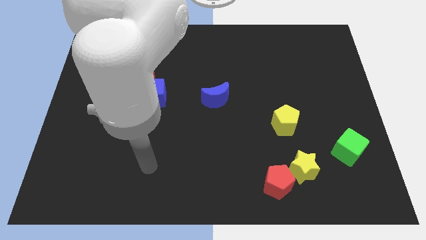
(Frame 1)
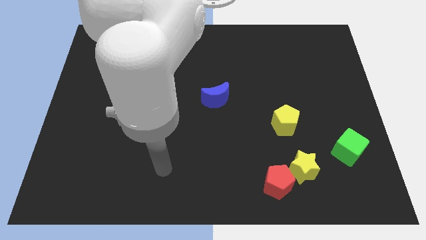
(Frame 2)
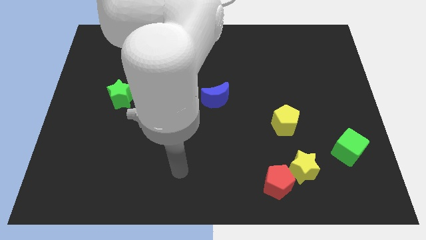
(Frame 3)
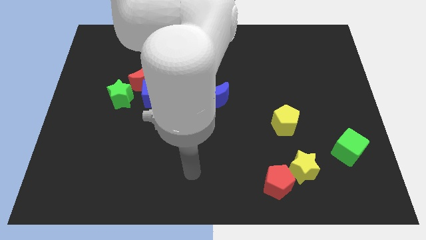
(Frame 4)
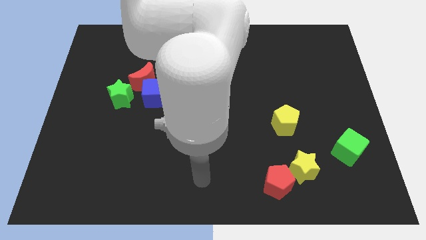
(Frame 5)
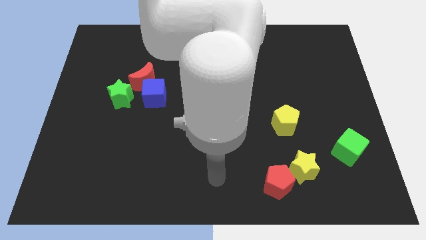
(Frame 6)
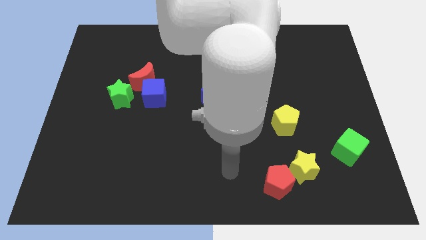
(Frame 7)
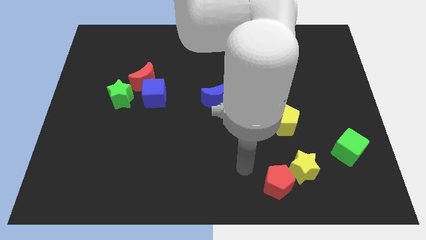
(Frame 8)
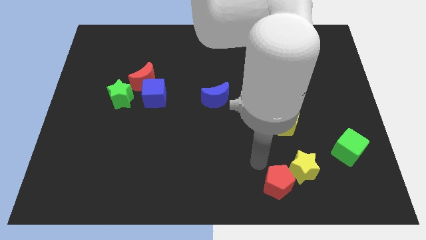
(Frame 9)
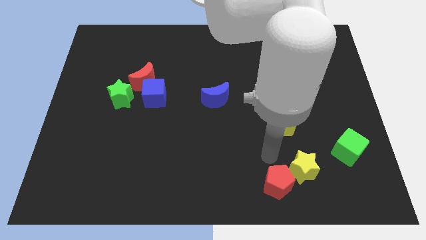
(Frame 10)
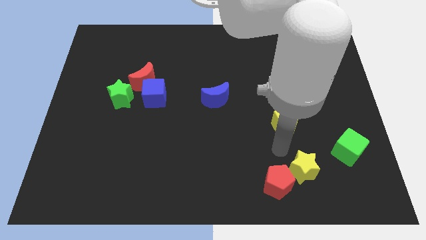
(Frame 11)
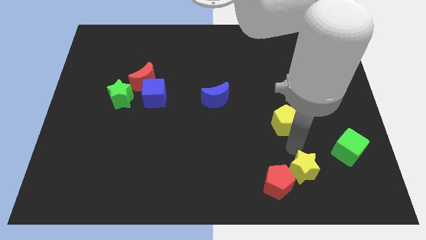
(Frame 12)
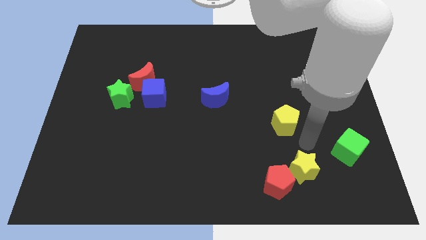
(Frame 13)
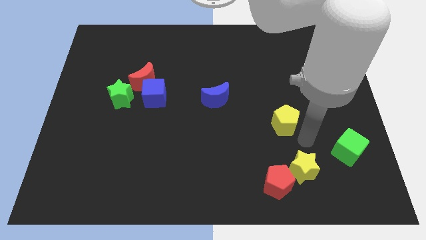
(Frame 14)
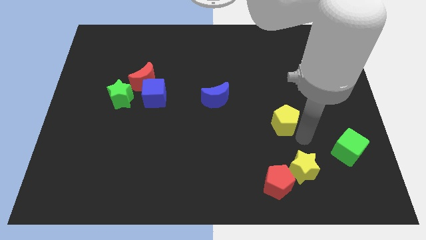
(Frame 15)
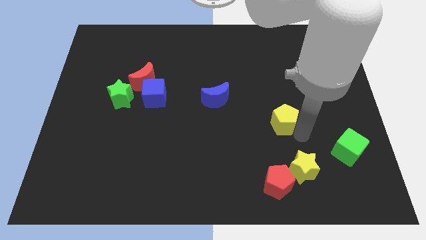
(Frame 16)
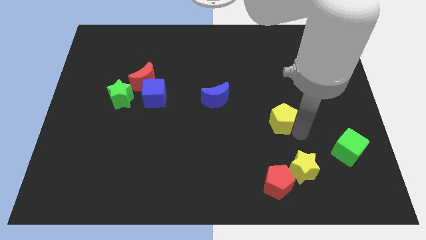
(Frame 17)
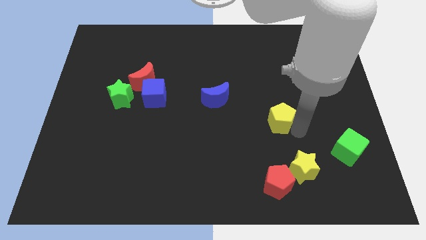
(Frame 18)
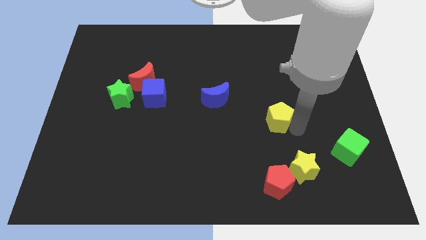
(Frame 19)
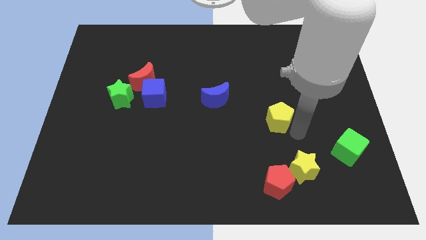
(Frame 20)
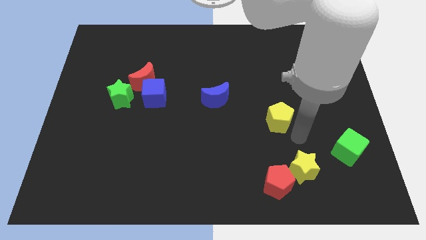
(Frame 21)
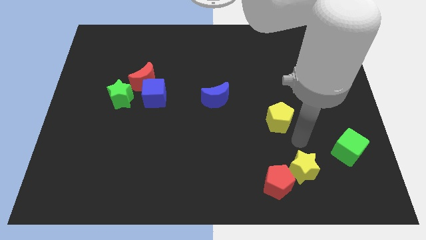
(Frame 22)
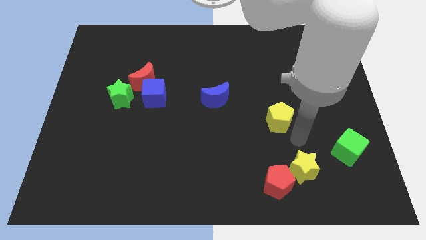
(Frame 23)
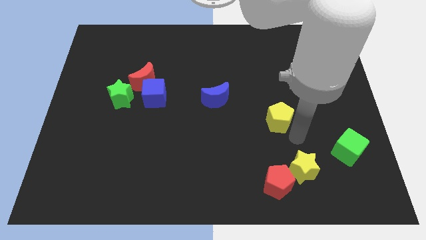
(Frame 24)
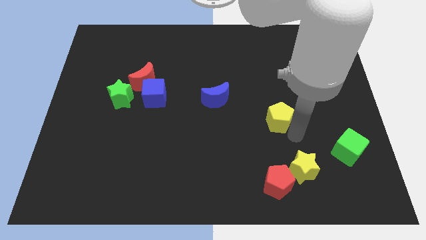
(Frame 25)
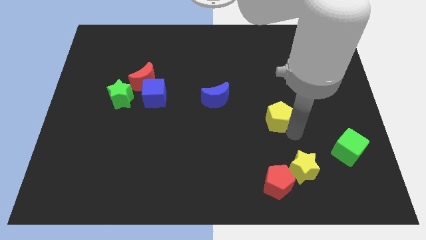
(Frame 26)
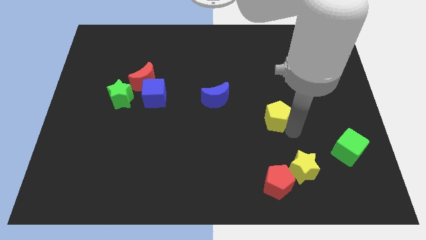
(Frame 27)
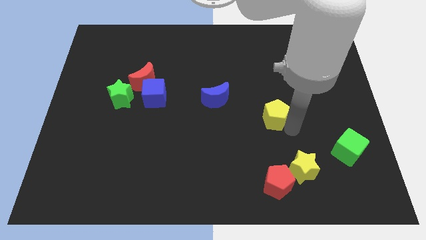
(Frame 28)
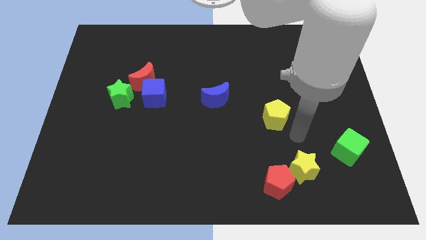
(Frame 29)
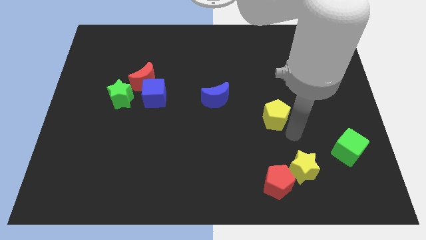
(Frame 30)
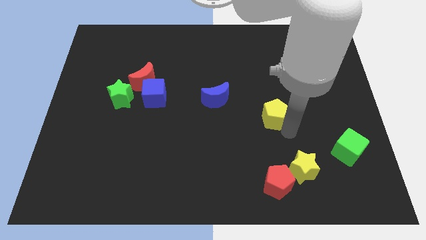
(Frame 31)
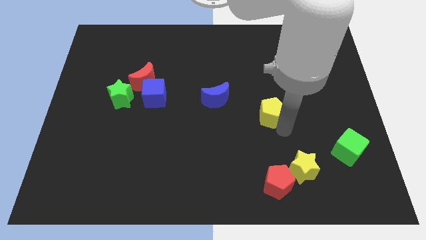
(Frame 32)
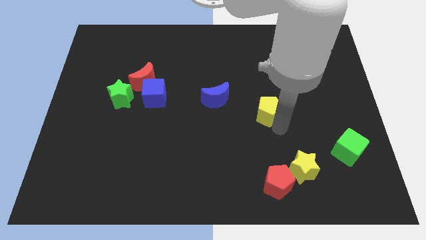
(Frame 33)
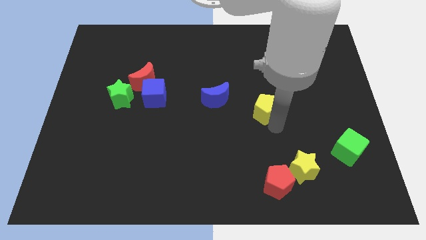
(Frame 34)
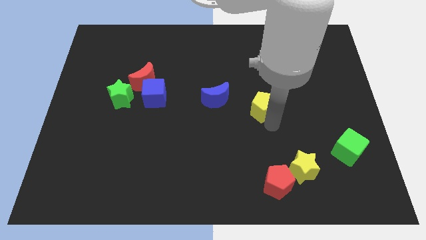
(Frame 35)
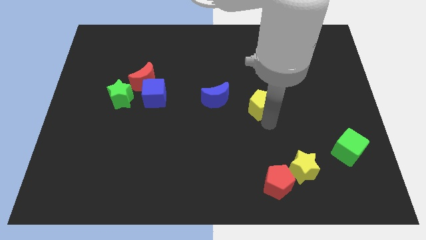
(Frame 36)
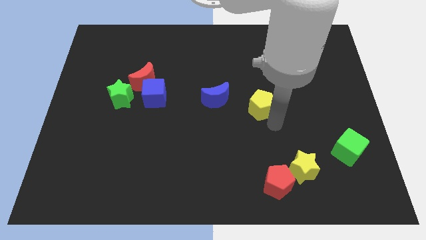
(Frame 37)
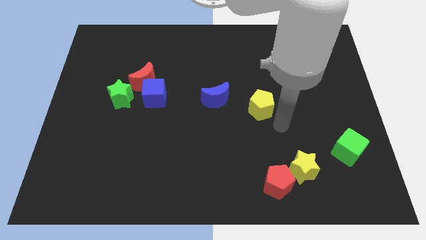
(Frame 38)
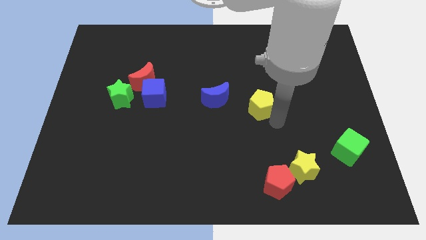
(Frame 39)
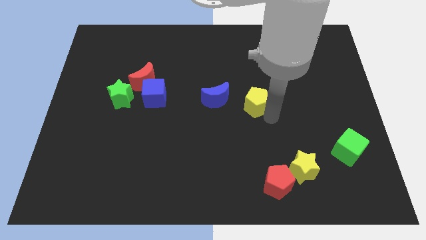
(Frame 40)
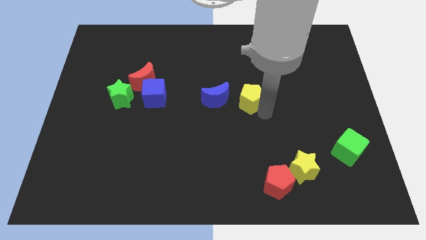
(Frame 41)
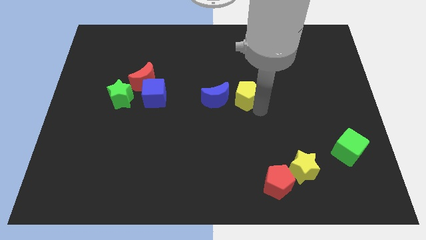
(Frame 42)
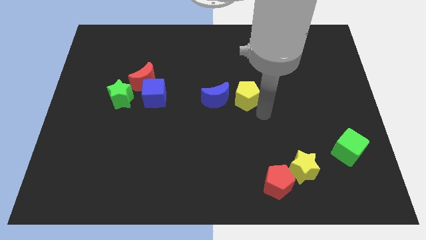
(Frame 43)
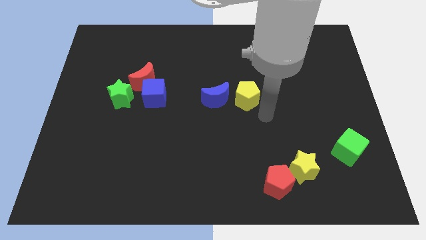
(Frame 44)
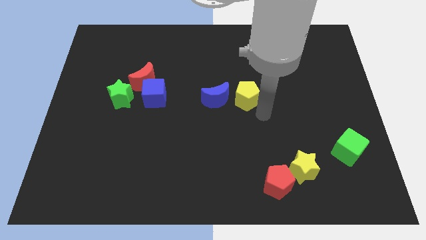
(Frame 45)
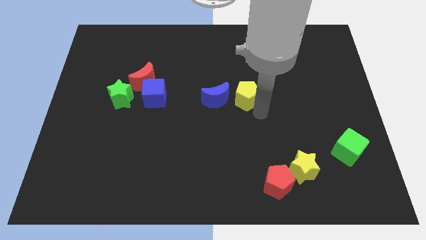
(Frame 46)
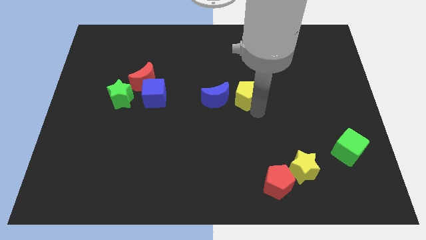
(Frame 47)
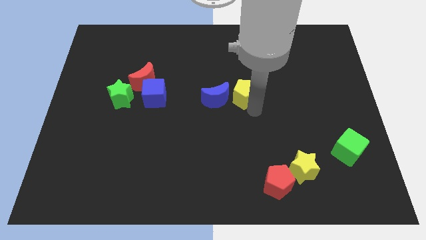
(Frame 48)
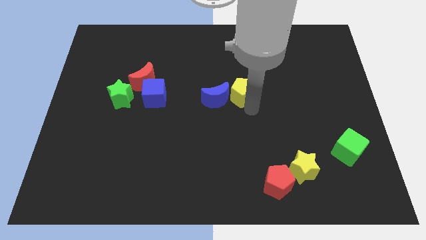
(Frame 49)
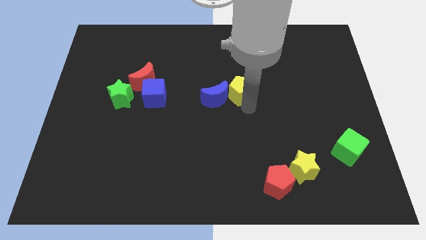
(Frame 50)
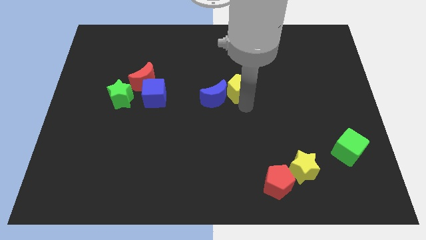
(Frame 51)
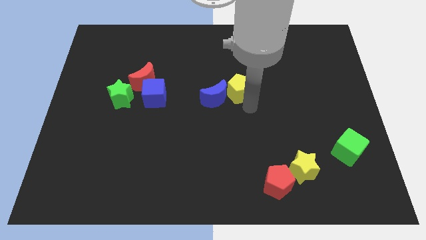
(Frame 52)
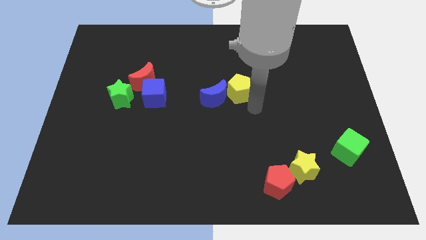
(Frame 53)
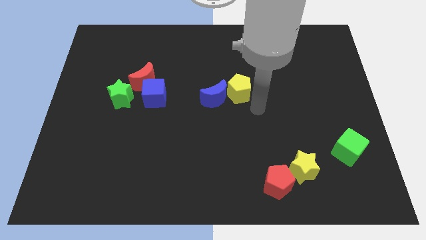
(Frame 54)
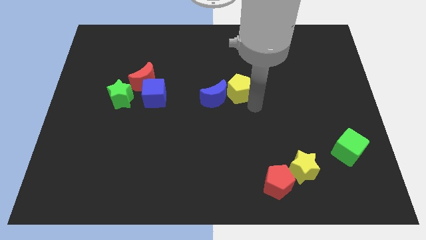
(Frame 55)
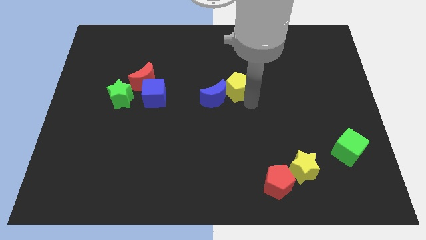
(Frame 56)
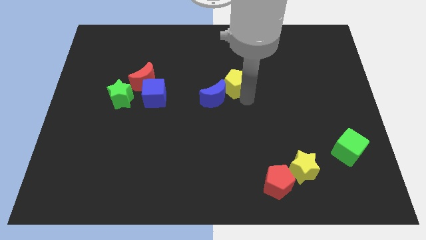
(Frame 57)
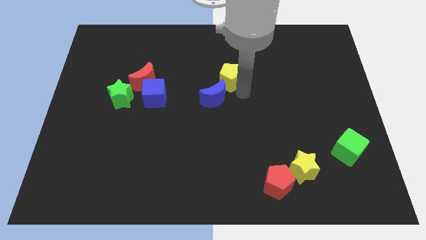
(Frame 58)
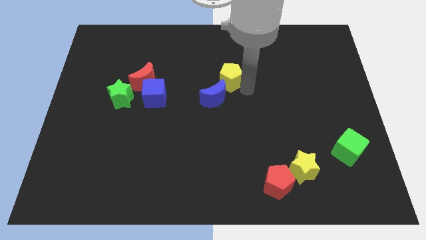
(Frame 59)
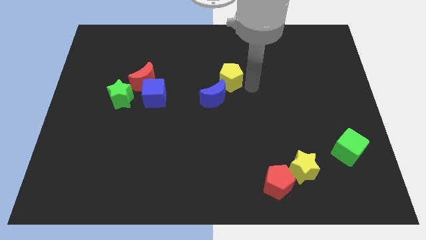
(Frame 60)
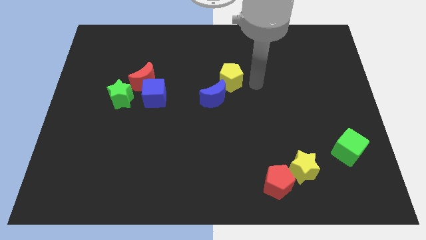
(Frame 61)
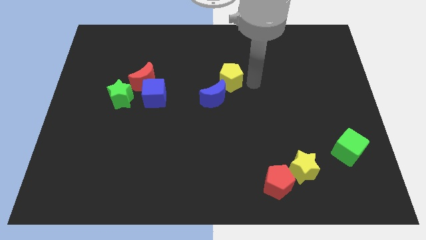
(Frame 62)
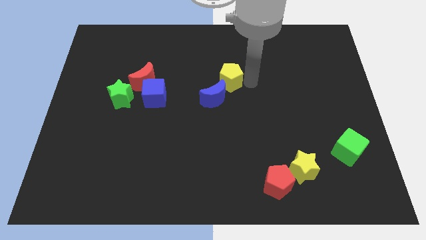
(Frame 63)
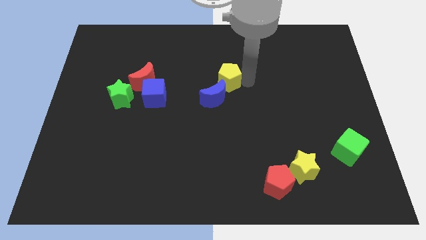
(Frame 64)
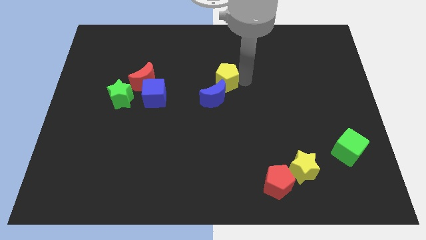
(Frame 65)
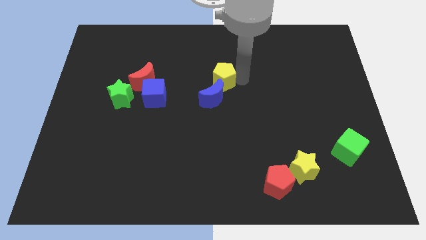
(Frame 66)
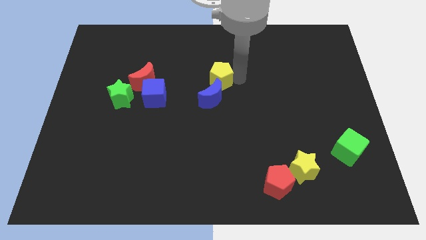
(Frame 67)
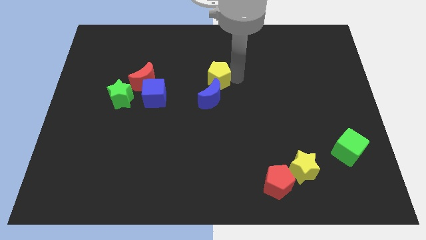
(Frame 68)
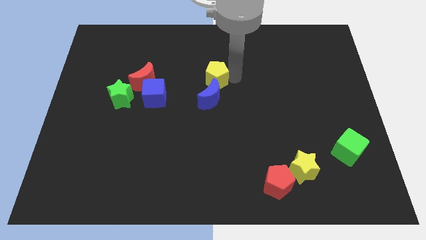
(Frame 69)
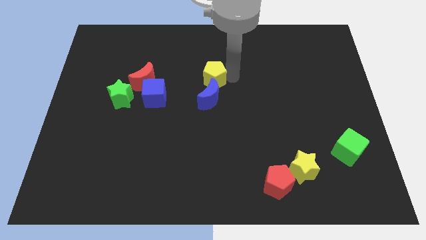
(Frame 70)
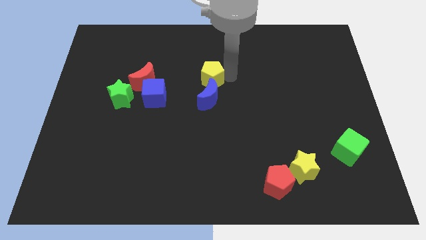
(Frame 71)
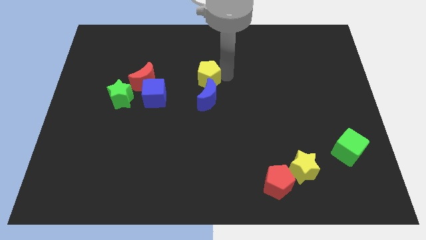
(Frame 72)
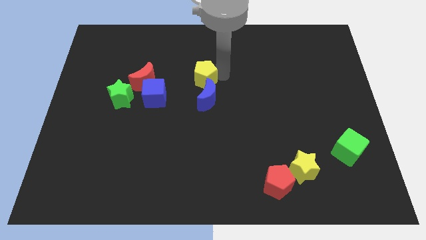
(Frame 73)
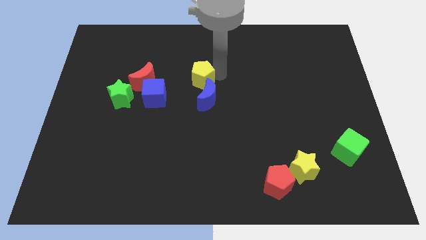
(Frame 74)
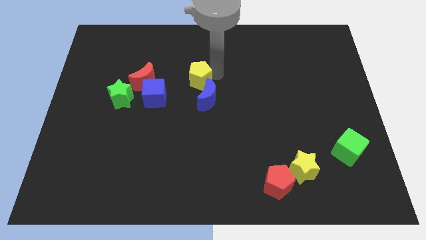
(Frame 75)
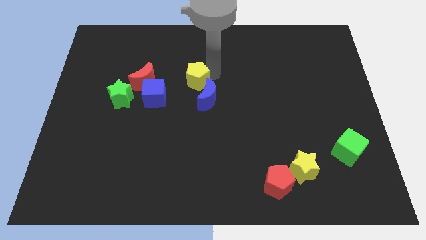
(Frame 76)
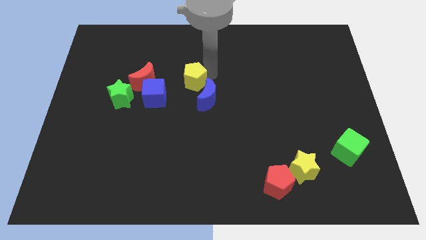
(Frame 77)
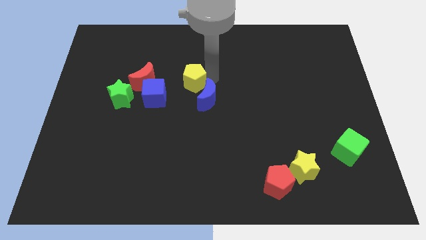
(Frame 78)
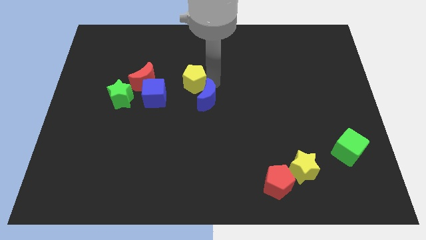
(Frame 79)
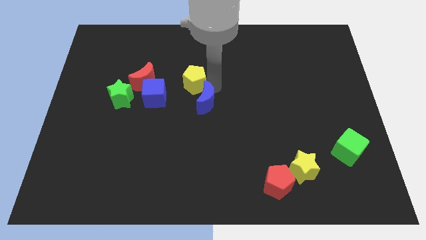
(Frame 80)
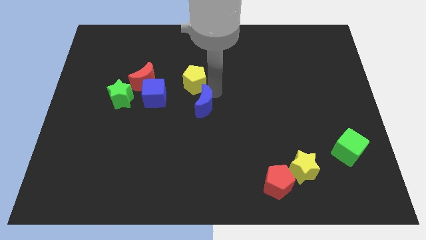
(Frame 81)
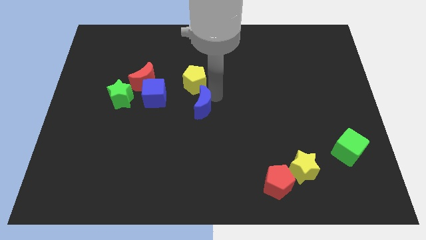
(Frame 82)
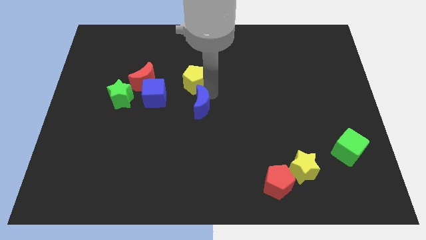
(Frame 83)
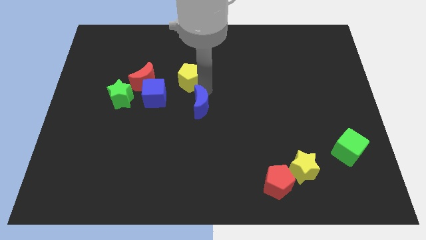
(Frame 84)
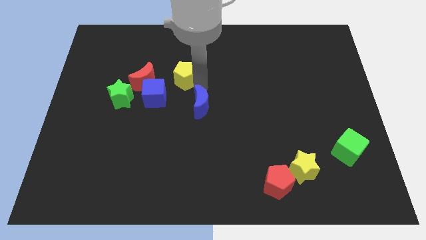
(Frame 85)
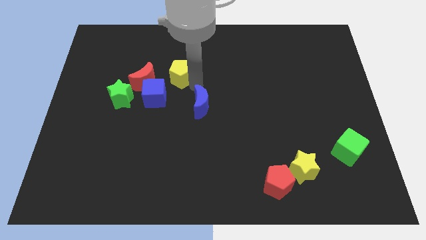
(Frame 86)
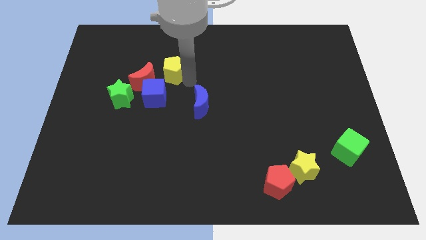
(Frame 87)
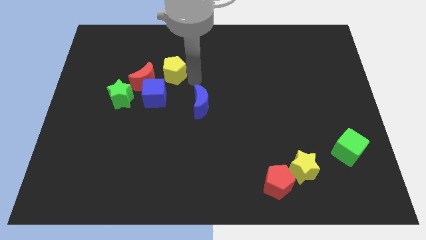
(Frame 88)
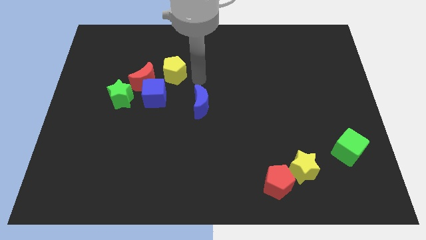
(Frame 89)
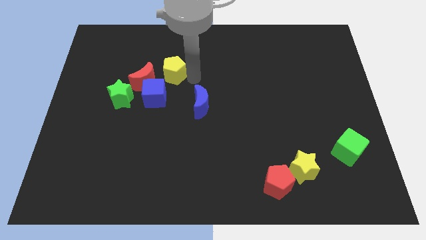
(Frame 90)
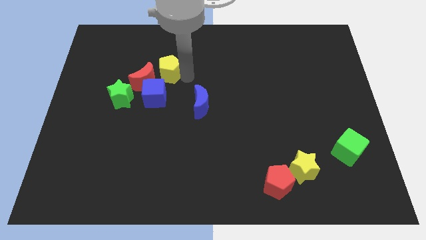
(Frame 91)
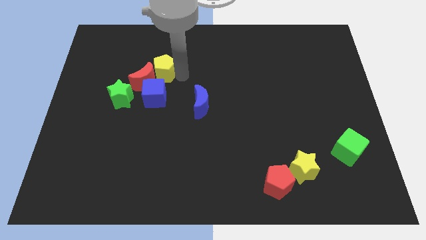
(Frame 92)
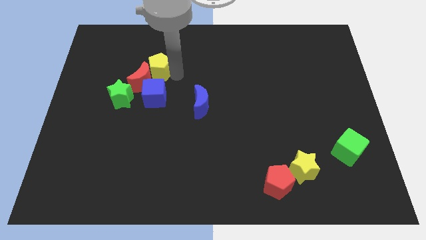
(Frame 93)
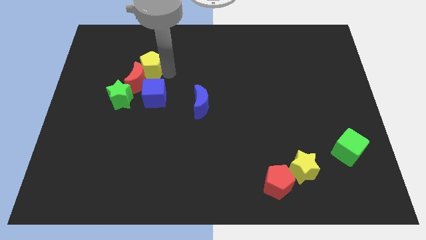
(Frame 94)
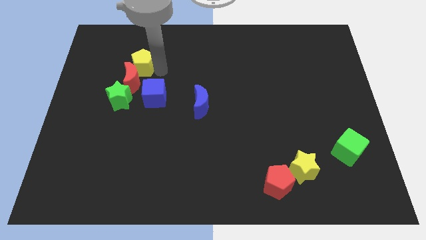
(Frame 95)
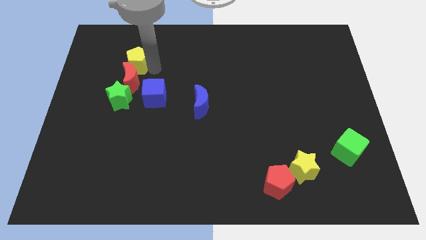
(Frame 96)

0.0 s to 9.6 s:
push the yellow pentagon to the top left side of the red moon
